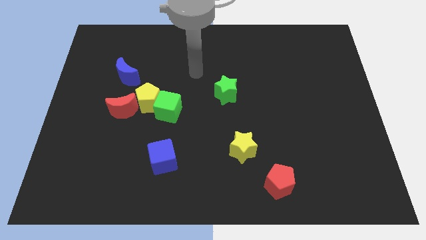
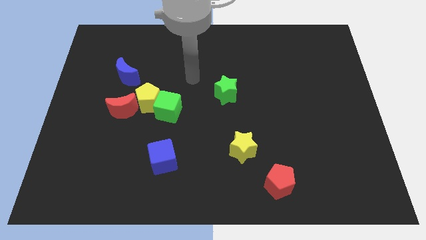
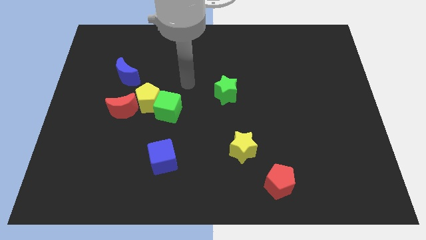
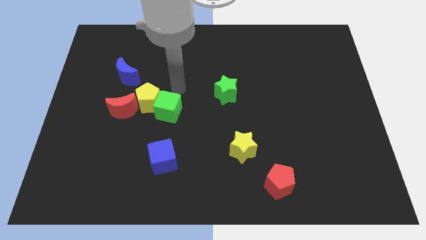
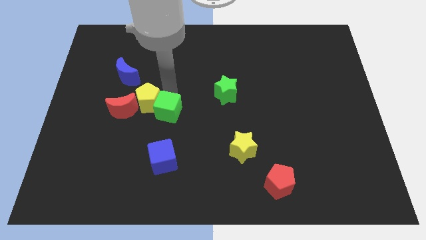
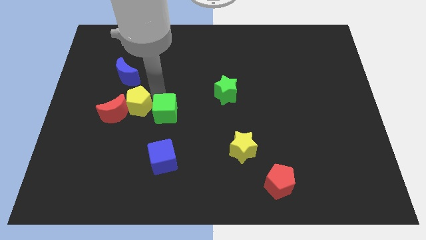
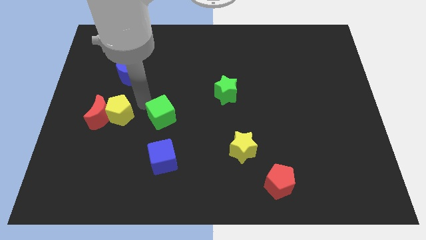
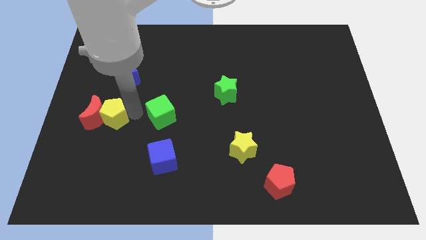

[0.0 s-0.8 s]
move the green cube away from the yellow pentagon

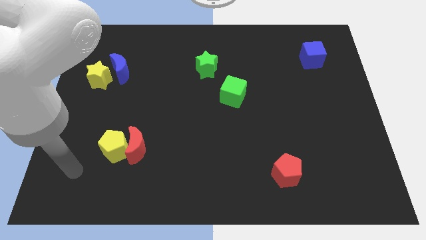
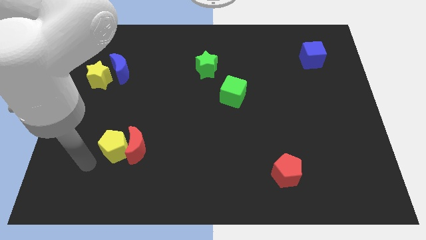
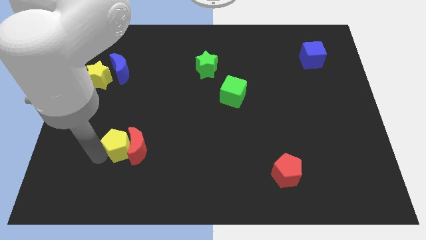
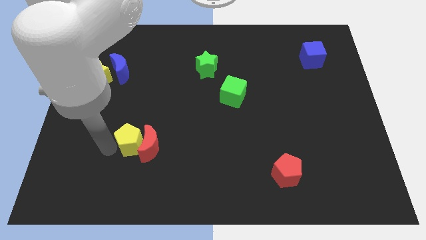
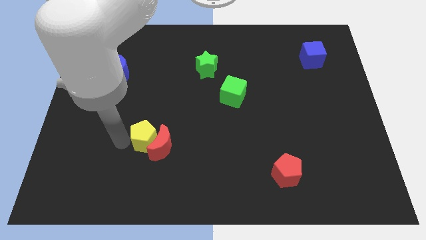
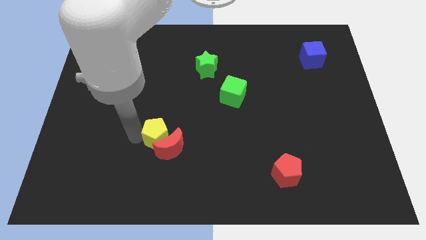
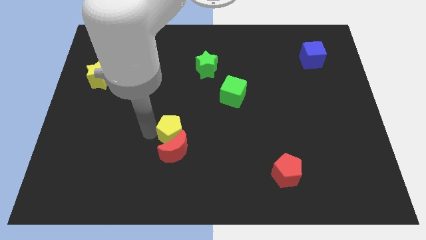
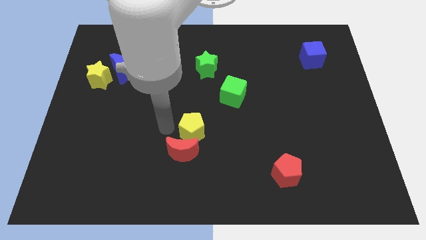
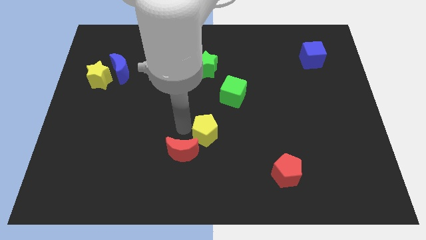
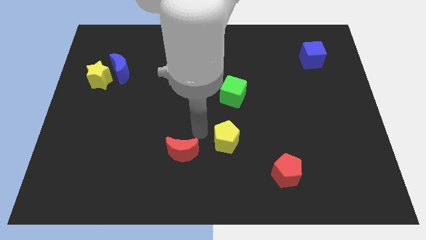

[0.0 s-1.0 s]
separate the red moon from the yellow pentagon

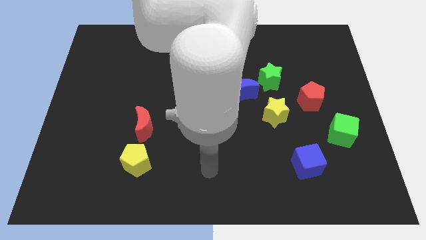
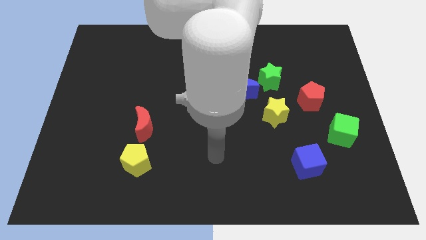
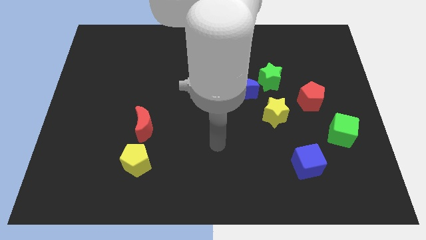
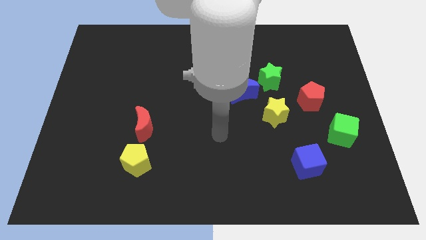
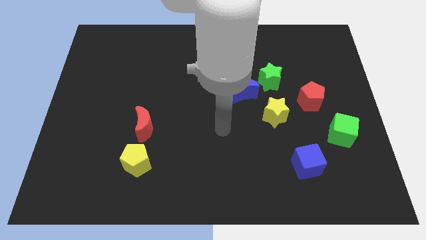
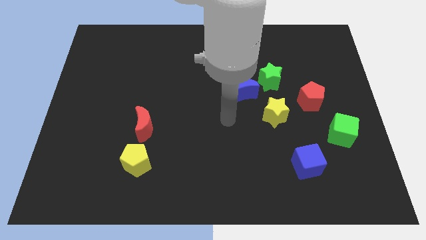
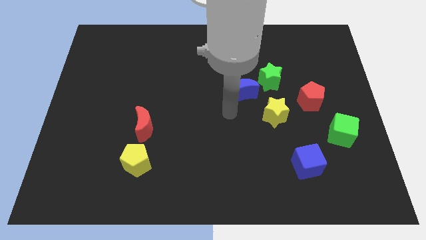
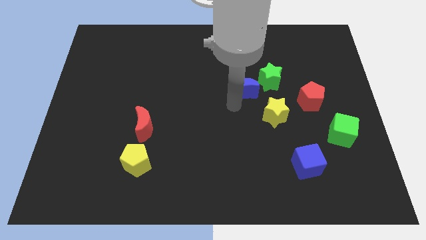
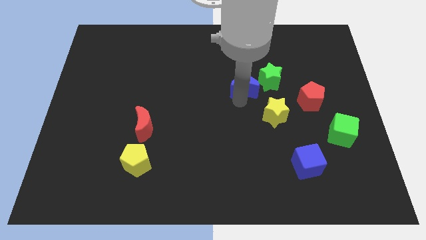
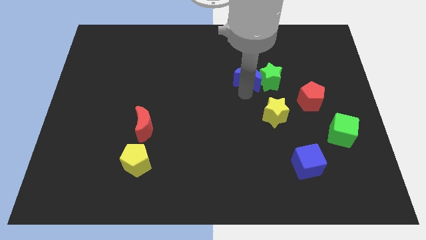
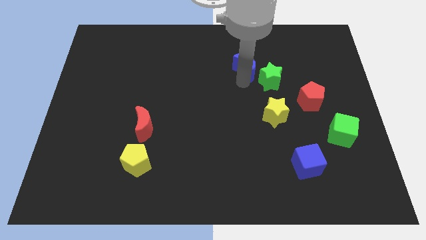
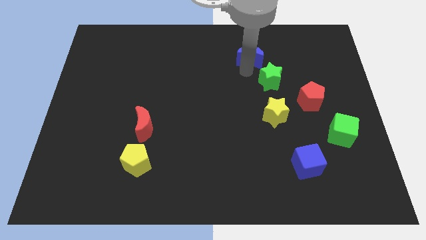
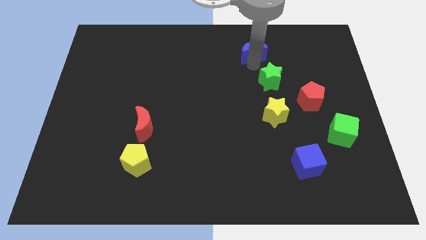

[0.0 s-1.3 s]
move the green star away from the blue moon

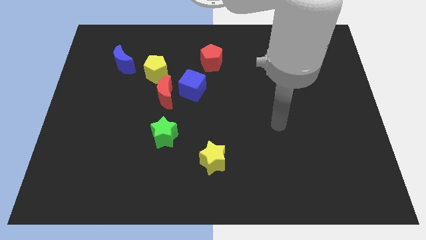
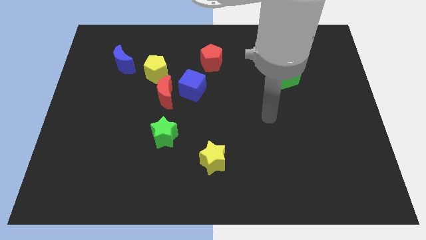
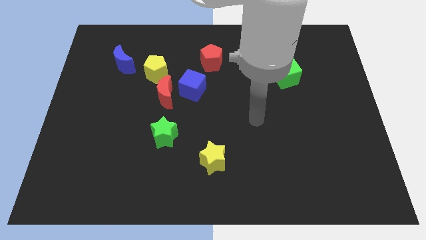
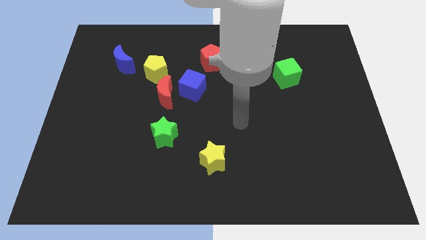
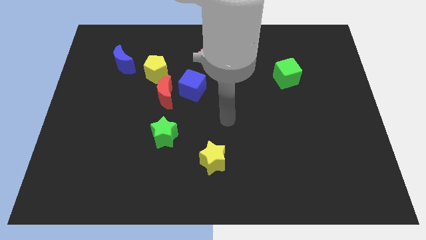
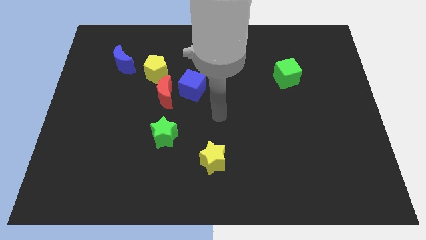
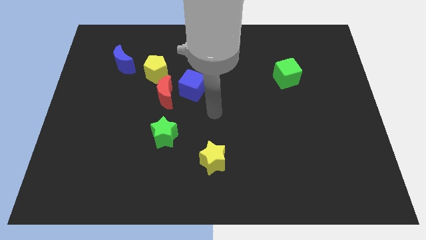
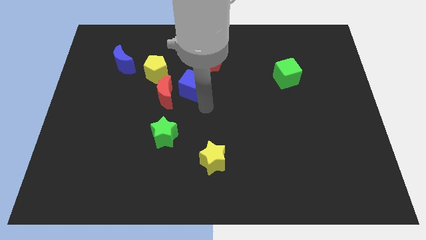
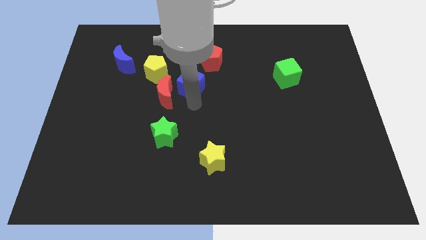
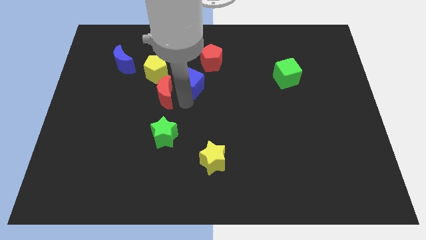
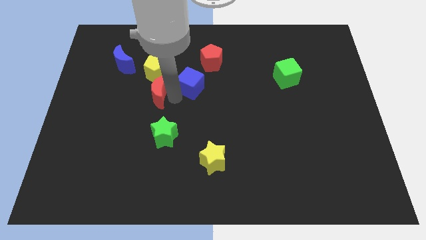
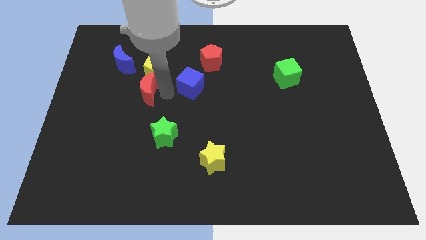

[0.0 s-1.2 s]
pull the blue cube apart from the red moon

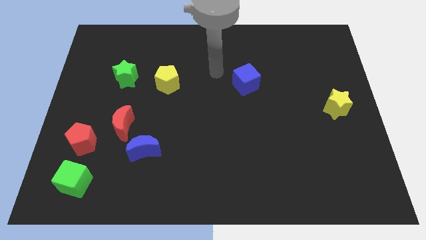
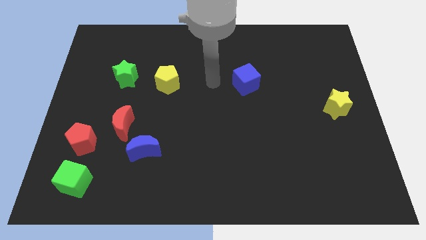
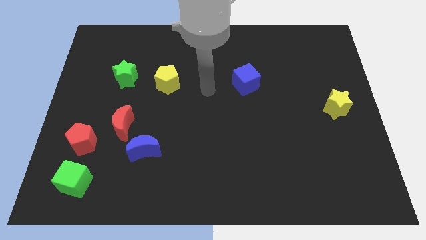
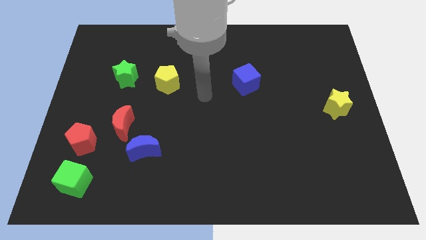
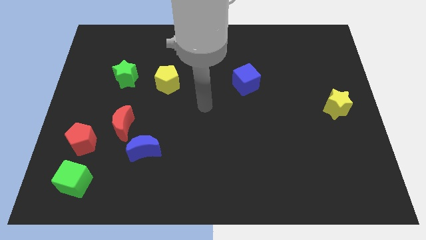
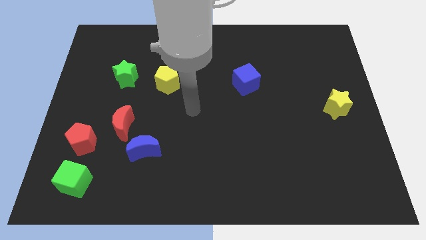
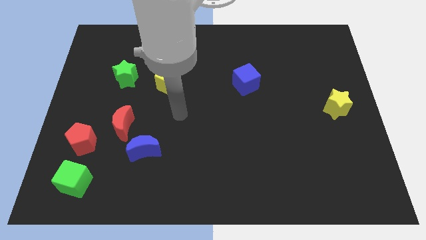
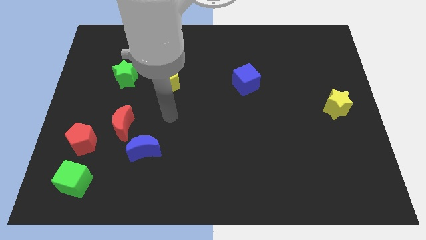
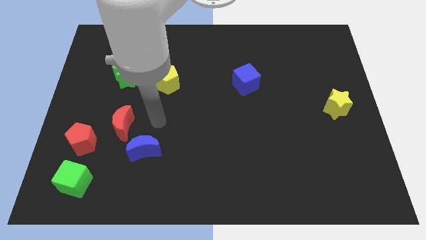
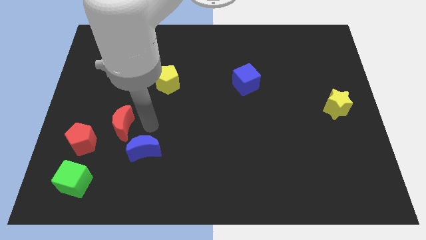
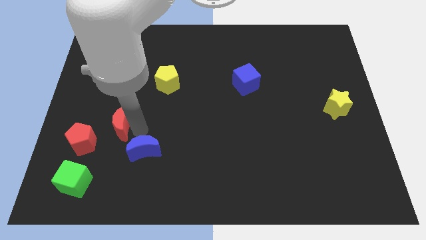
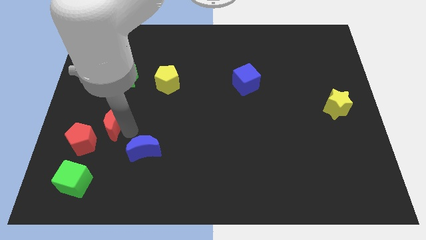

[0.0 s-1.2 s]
pull the blue moon apart from the red moon

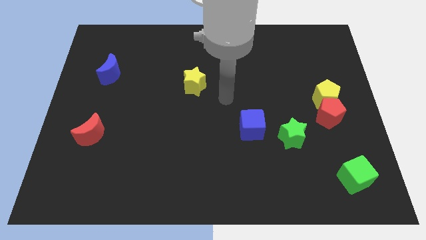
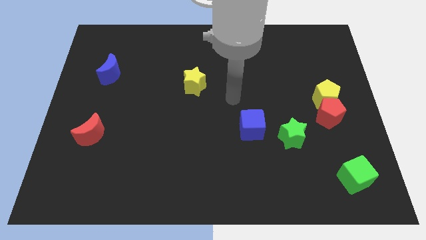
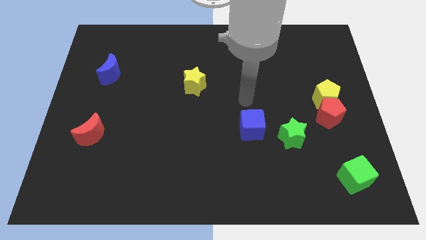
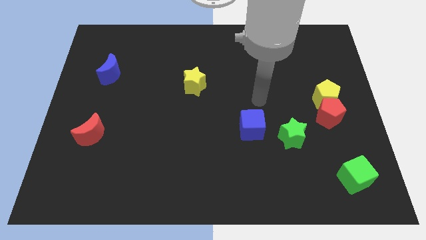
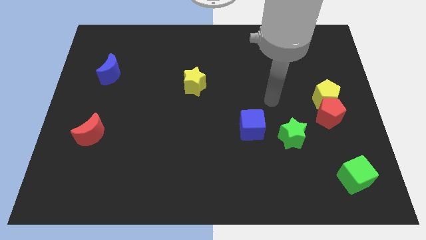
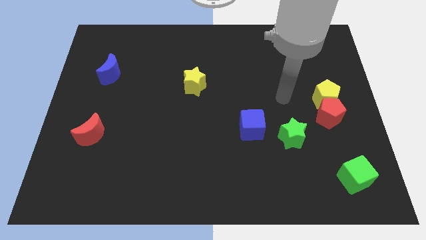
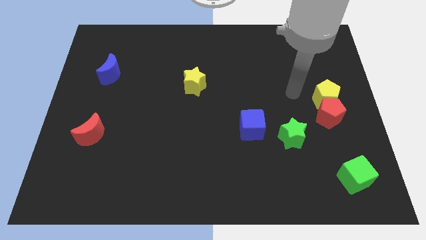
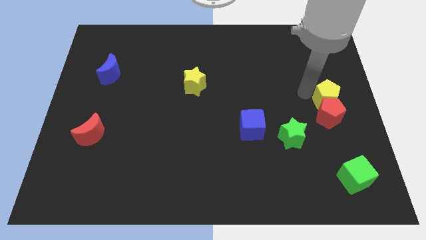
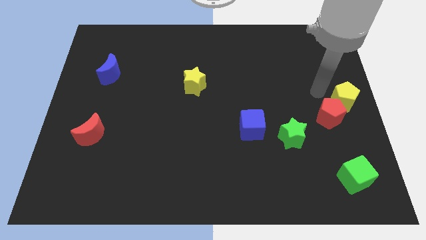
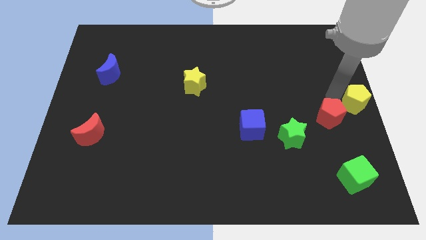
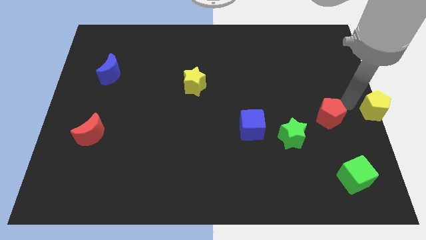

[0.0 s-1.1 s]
pull the red pentagon apart from the yellow pentagon

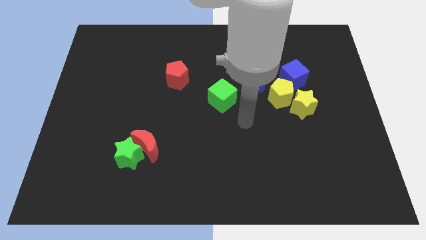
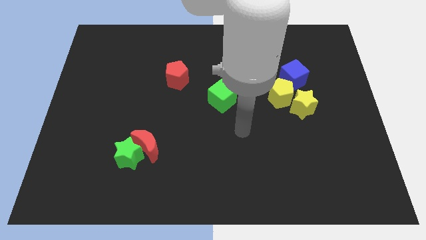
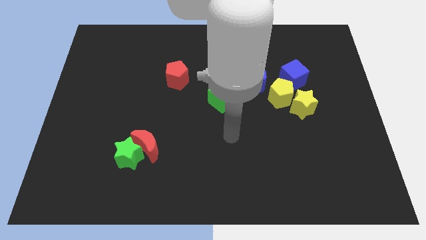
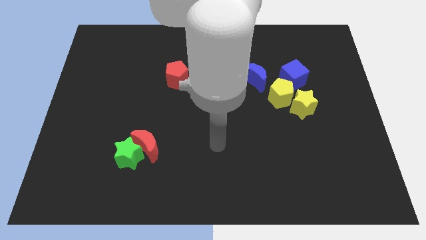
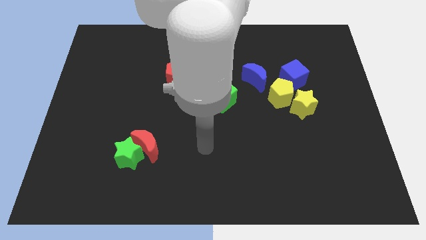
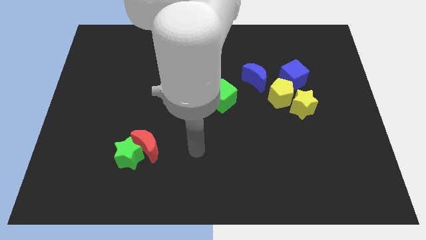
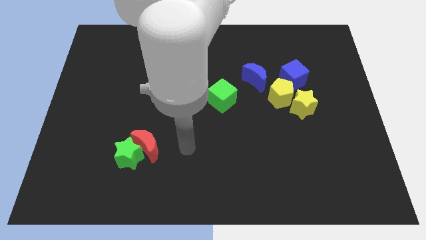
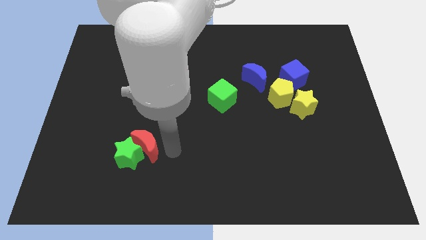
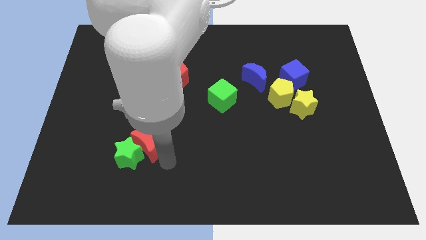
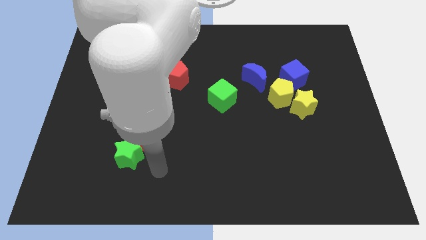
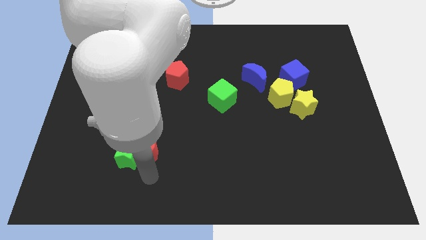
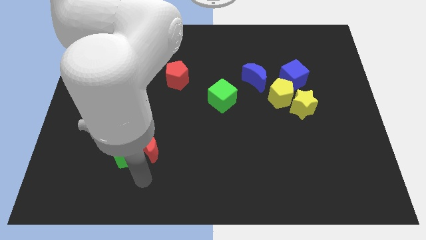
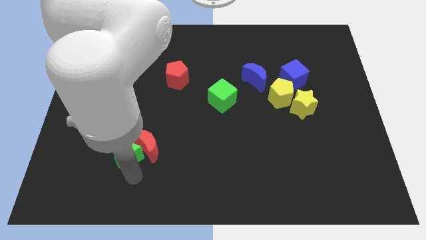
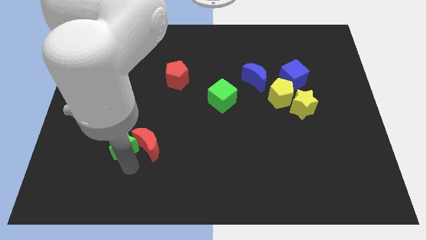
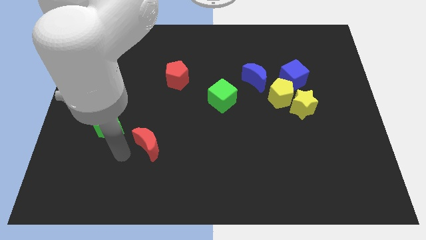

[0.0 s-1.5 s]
pull the red moon apart from the green star

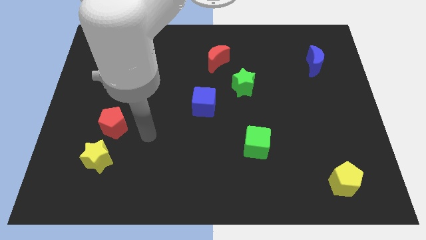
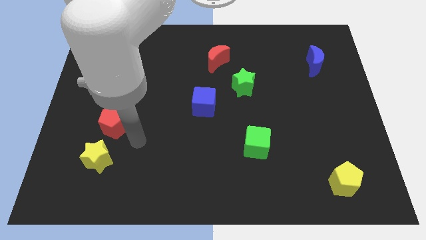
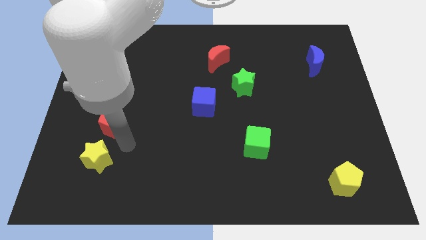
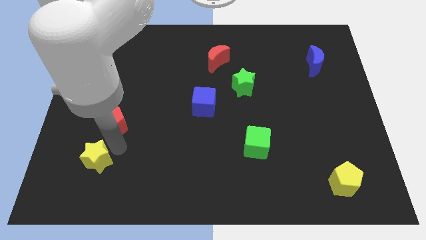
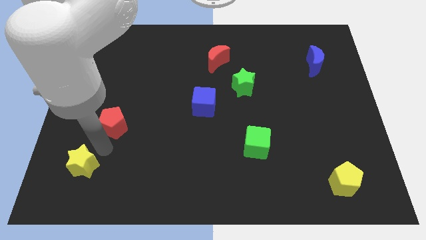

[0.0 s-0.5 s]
separate the red pentagon from the yellow star

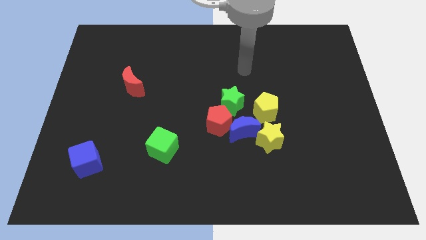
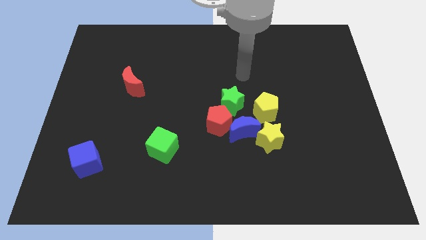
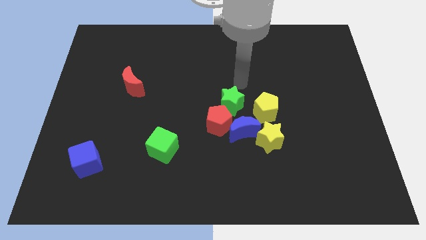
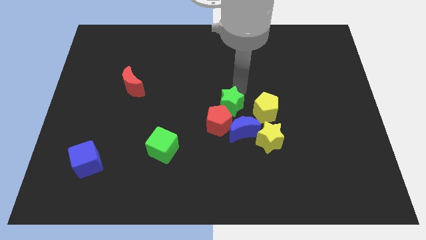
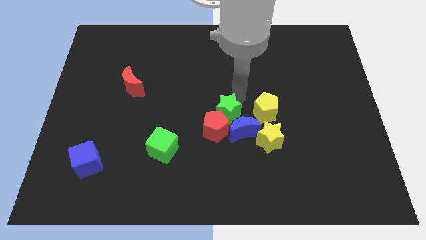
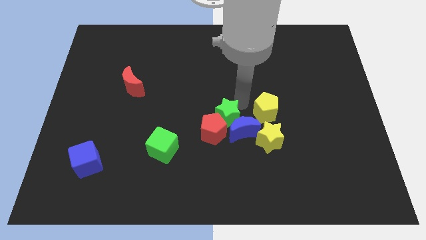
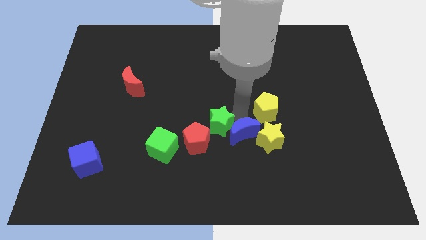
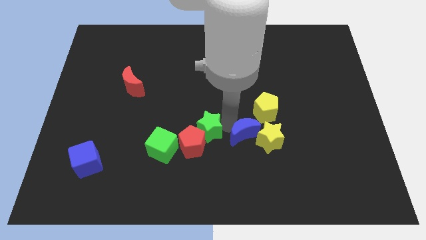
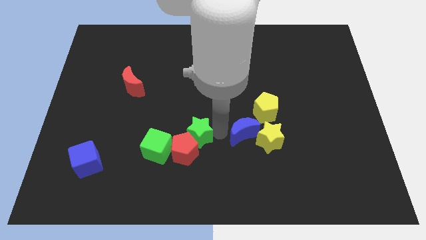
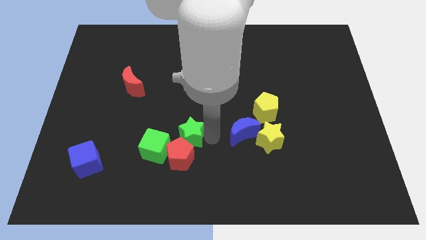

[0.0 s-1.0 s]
separate the red pentagon from the blue moon and green star
